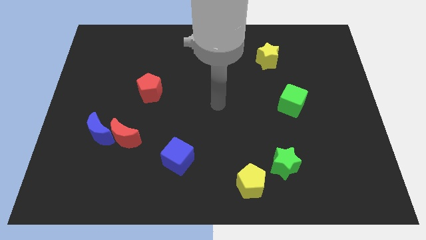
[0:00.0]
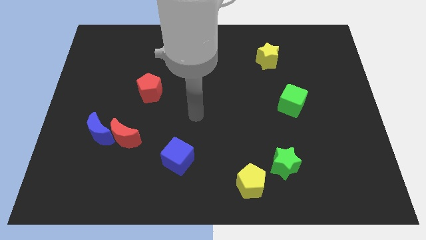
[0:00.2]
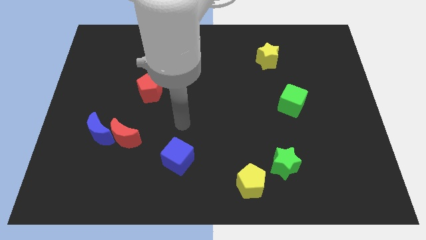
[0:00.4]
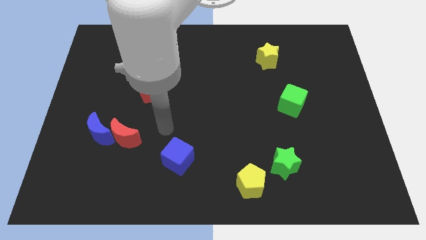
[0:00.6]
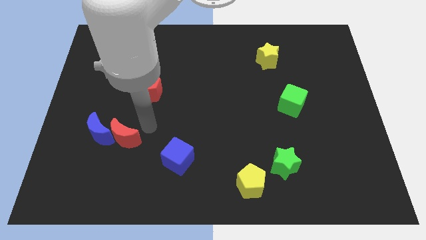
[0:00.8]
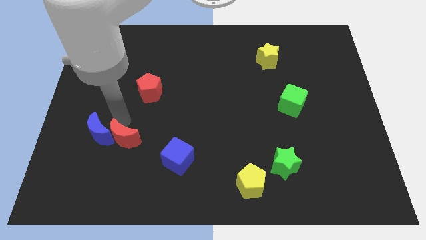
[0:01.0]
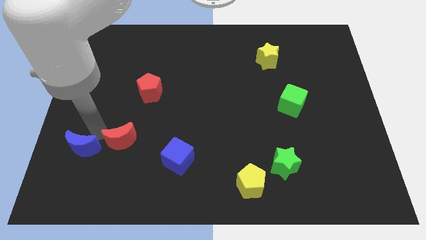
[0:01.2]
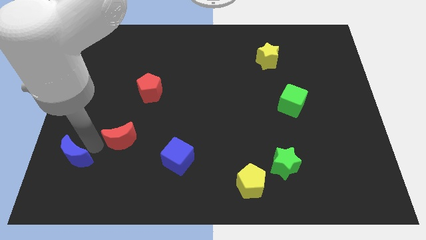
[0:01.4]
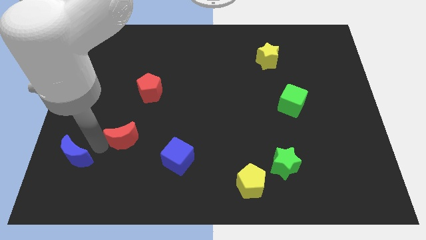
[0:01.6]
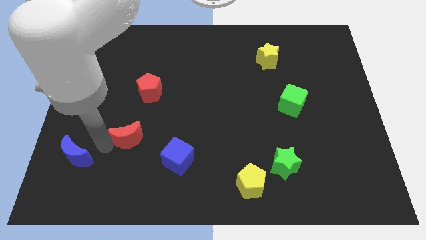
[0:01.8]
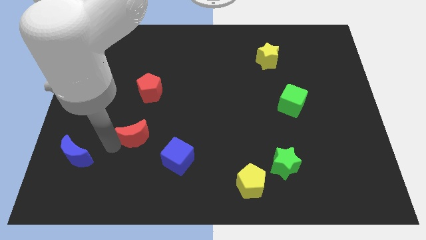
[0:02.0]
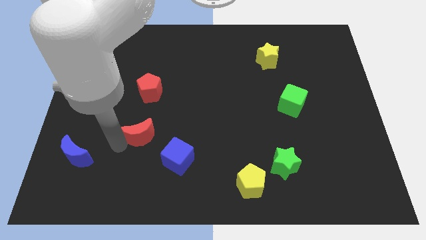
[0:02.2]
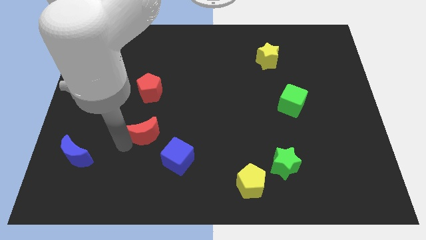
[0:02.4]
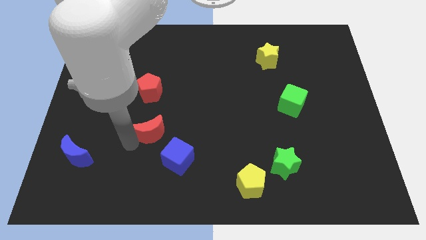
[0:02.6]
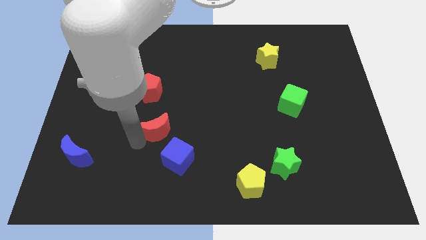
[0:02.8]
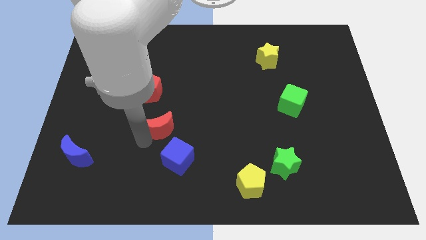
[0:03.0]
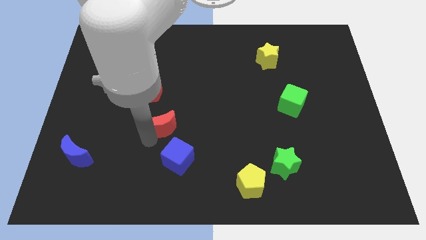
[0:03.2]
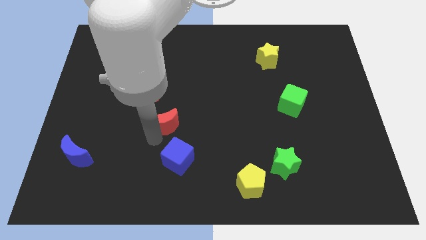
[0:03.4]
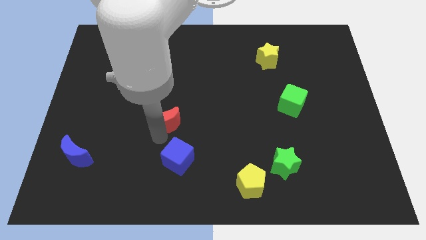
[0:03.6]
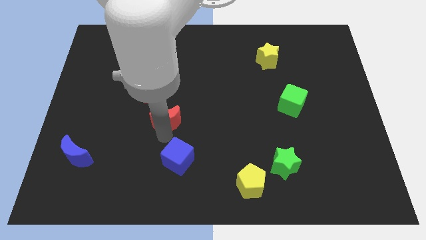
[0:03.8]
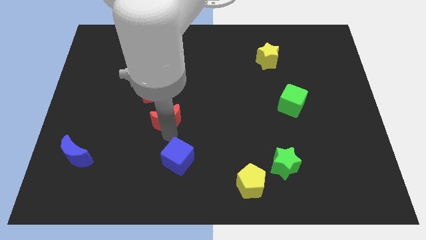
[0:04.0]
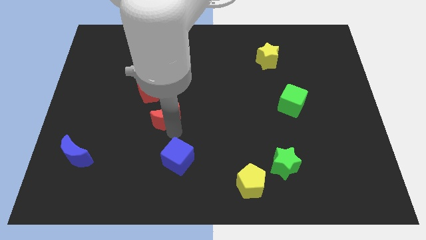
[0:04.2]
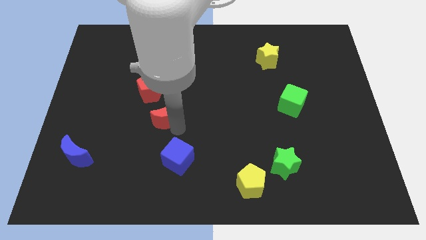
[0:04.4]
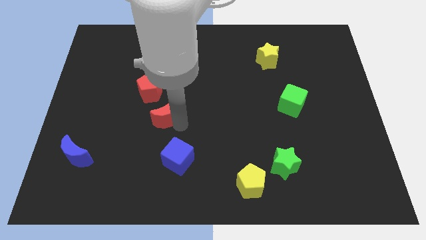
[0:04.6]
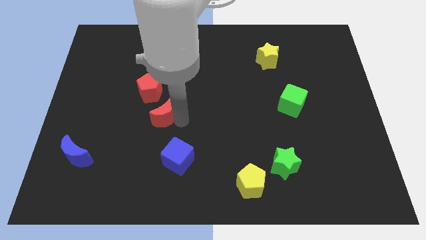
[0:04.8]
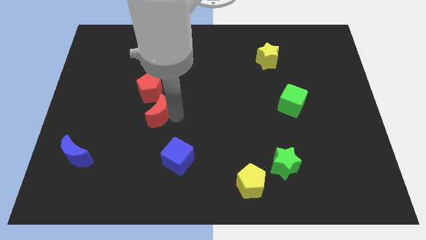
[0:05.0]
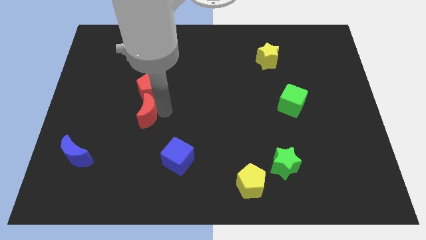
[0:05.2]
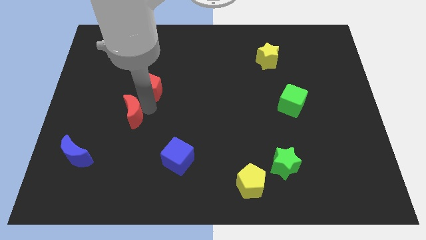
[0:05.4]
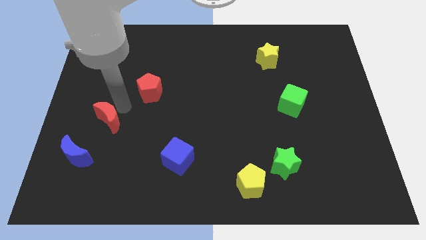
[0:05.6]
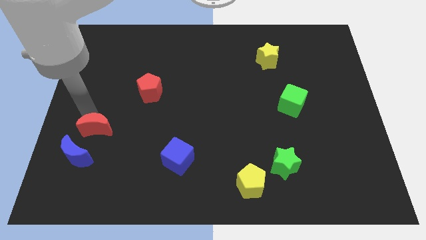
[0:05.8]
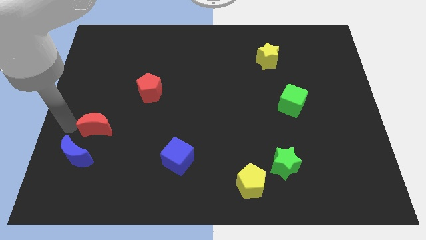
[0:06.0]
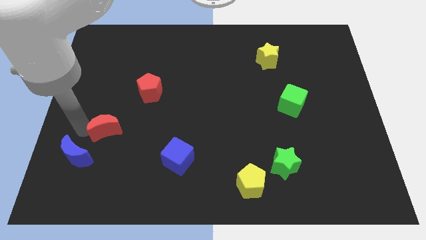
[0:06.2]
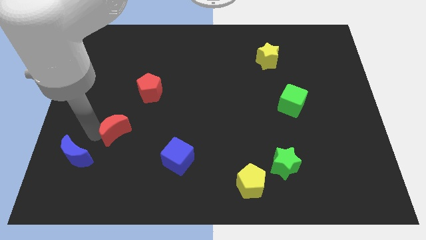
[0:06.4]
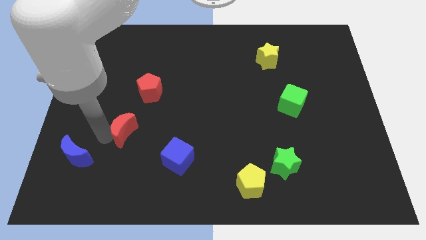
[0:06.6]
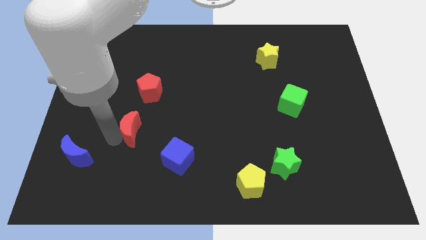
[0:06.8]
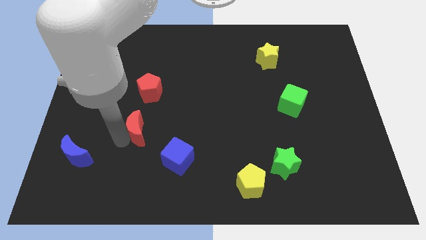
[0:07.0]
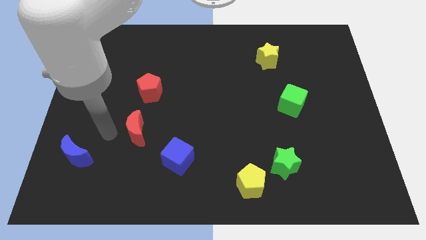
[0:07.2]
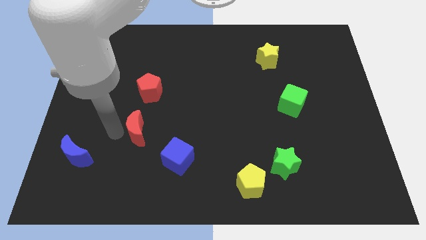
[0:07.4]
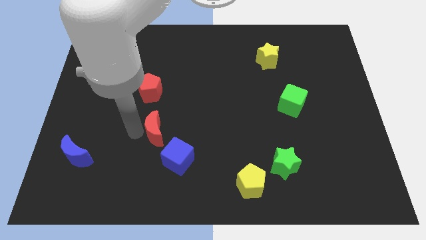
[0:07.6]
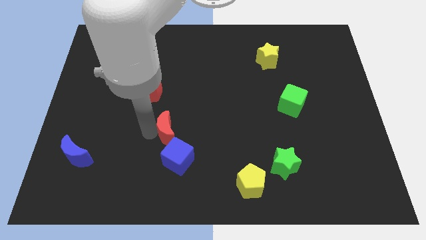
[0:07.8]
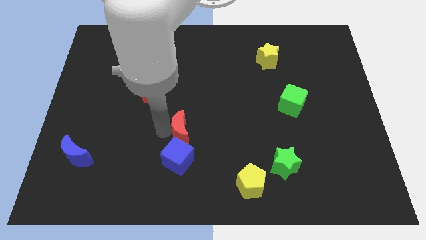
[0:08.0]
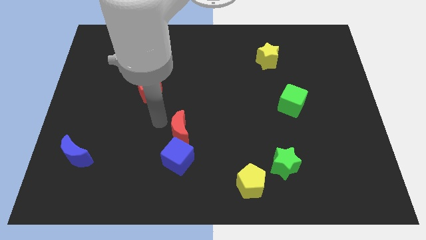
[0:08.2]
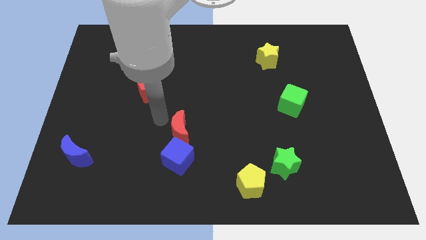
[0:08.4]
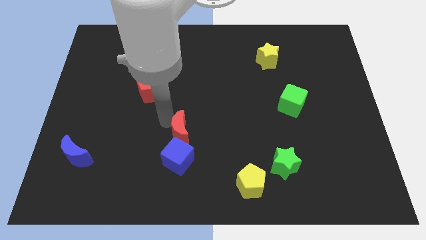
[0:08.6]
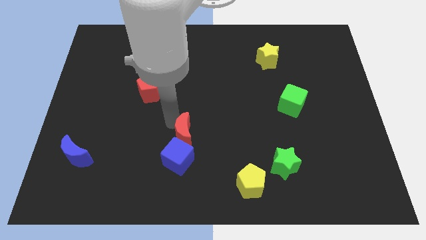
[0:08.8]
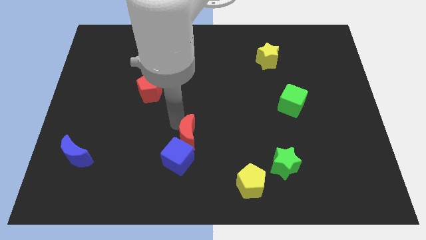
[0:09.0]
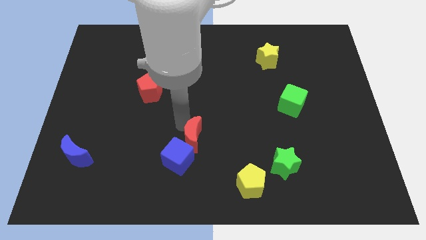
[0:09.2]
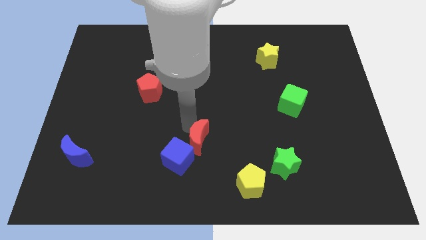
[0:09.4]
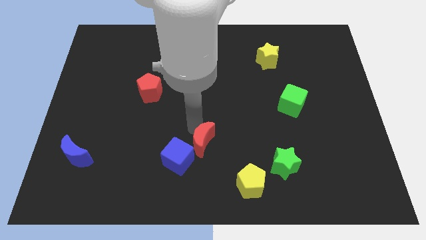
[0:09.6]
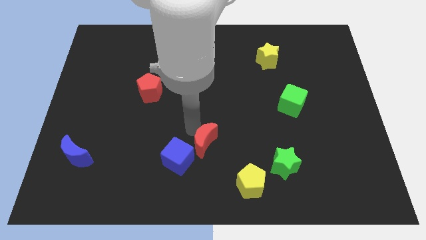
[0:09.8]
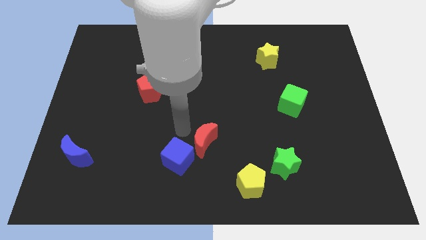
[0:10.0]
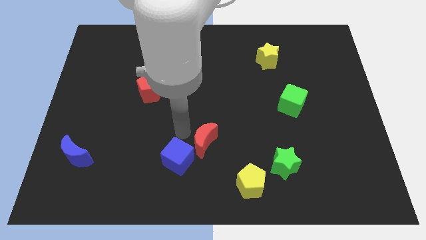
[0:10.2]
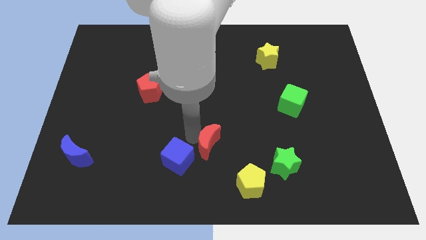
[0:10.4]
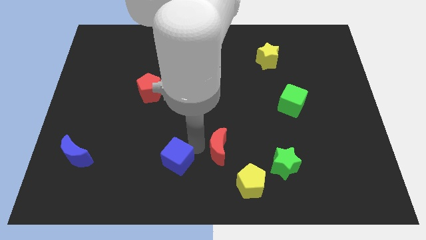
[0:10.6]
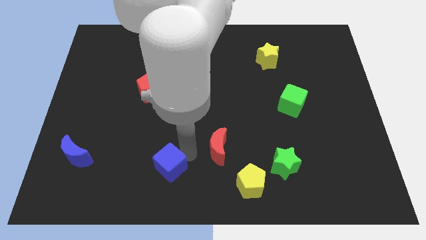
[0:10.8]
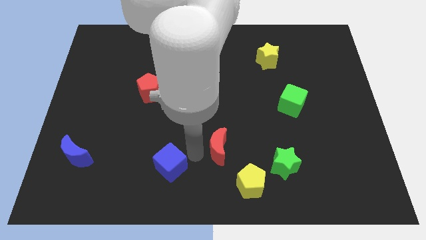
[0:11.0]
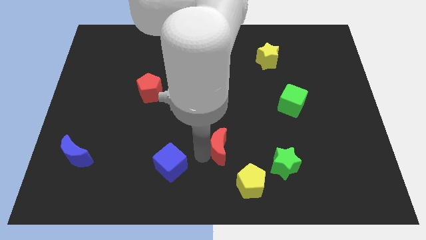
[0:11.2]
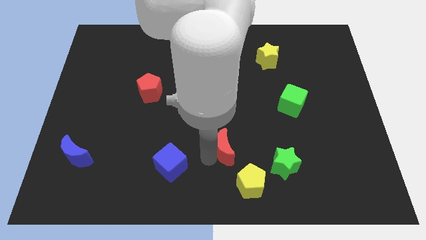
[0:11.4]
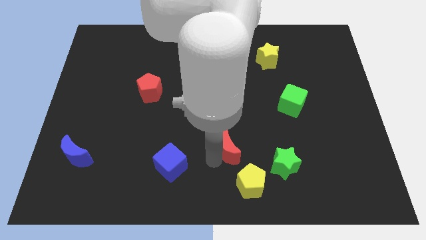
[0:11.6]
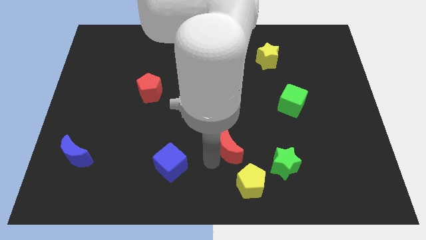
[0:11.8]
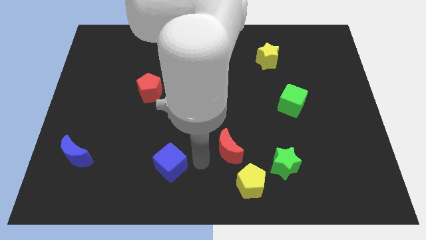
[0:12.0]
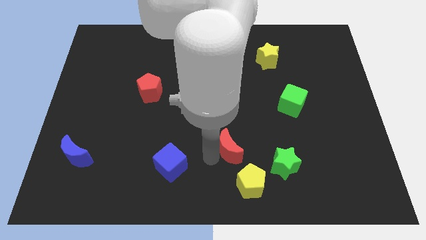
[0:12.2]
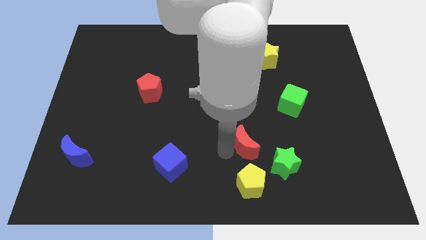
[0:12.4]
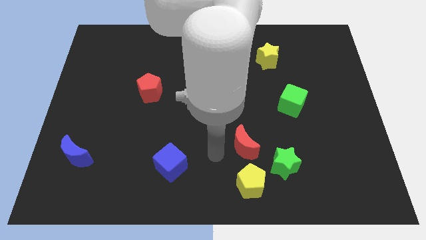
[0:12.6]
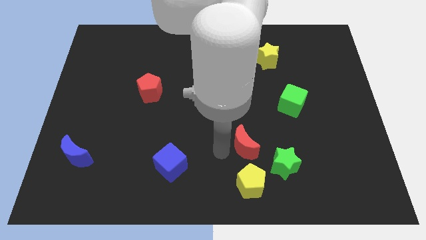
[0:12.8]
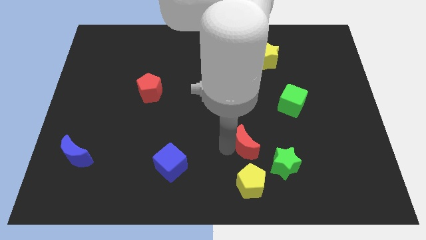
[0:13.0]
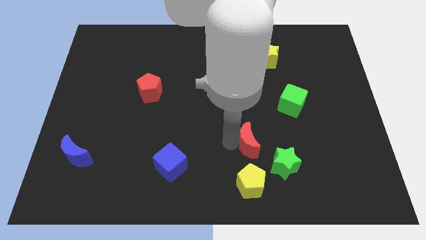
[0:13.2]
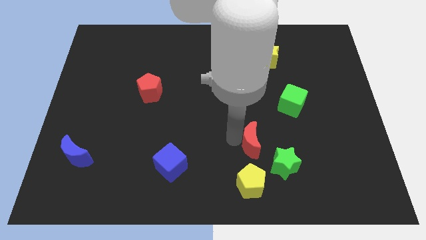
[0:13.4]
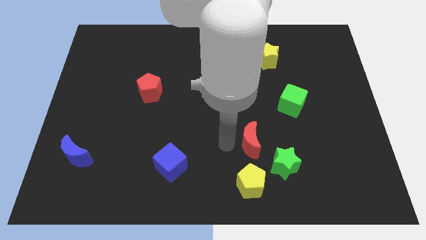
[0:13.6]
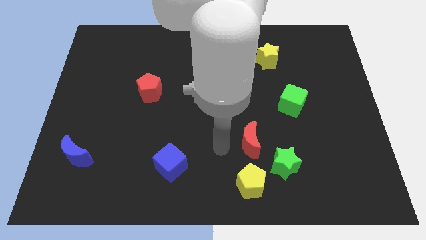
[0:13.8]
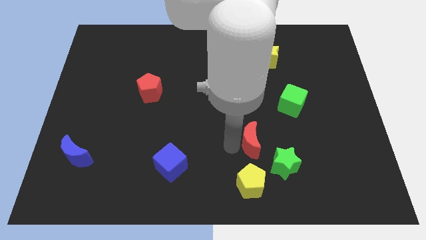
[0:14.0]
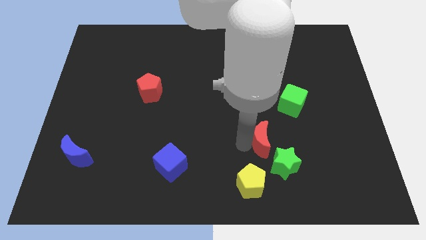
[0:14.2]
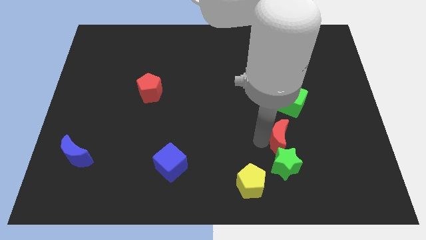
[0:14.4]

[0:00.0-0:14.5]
push the red moon below the green cube

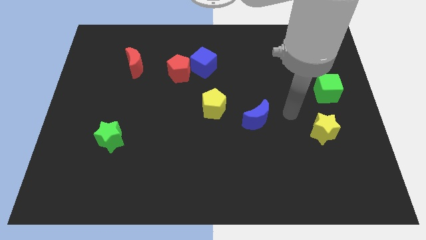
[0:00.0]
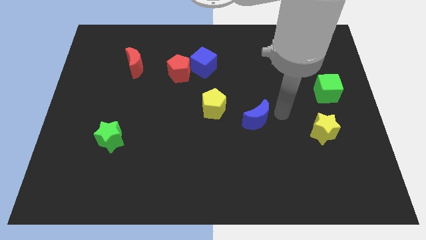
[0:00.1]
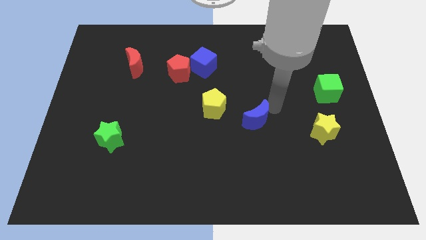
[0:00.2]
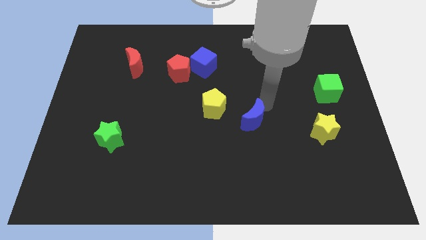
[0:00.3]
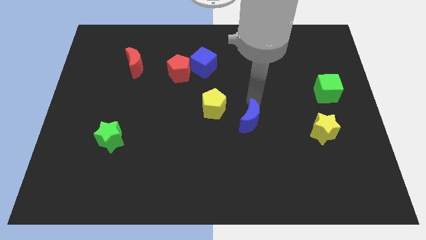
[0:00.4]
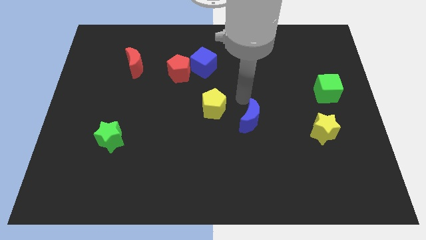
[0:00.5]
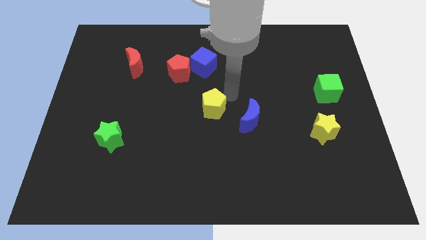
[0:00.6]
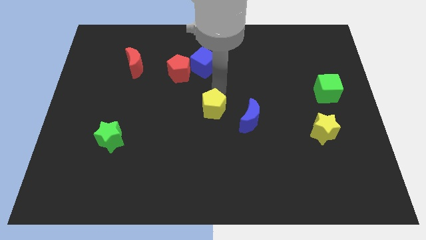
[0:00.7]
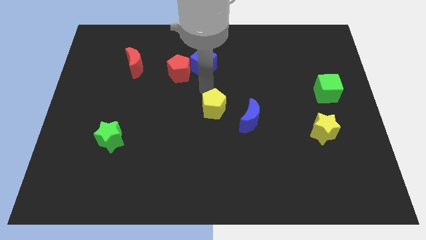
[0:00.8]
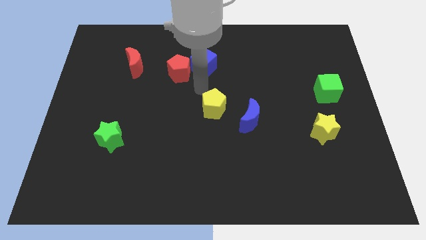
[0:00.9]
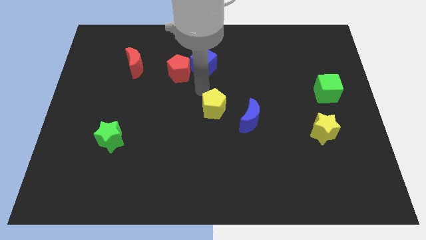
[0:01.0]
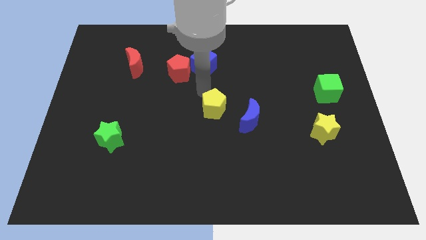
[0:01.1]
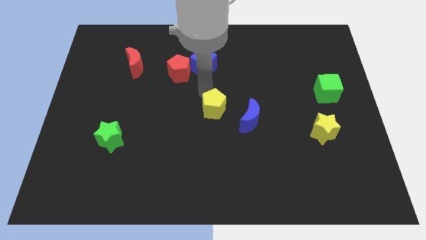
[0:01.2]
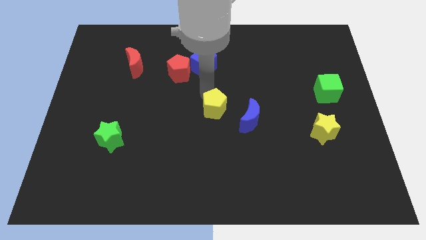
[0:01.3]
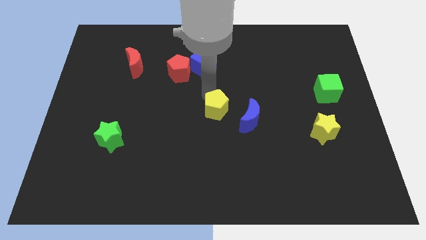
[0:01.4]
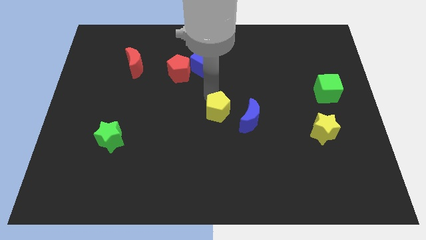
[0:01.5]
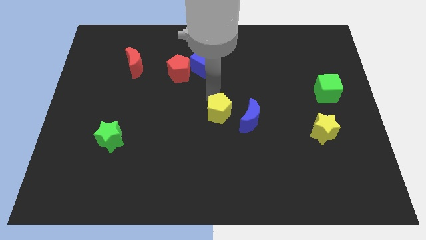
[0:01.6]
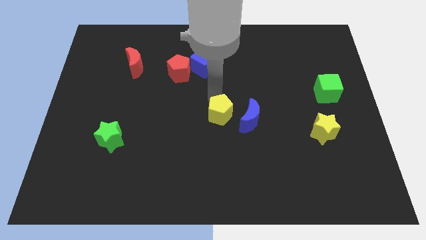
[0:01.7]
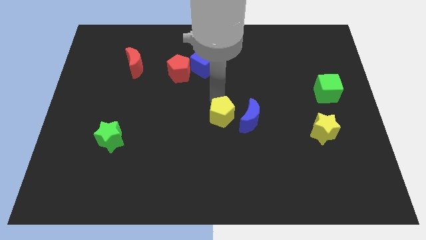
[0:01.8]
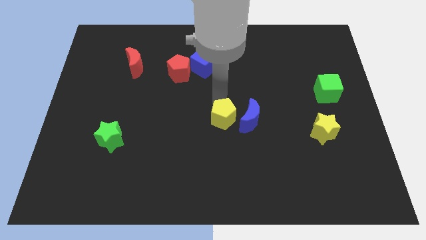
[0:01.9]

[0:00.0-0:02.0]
push the yellow pentagon diagonally down and to the left of the blue moon
